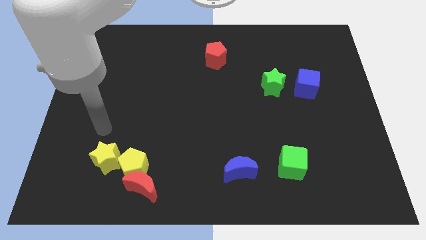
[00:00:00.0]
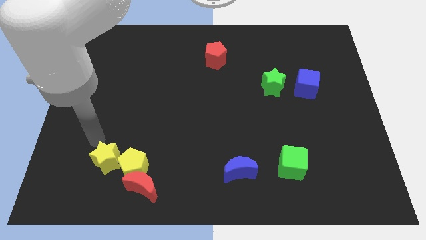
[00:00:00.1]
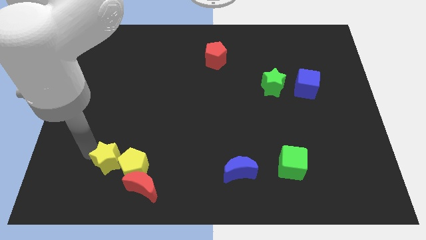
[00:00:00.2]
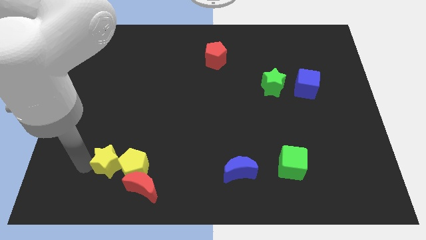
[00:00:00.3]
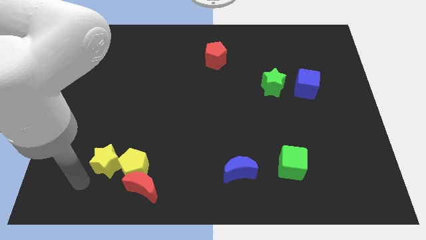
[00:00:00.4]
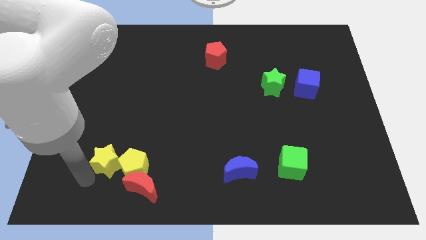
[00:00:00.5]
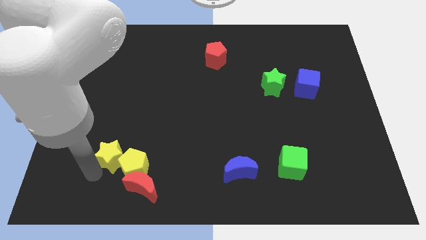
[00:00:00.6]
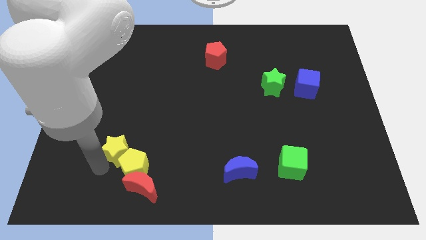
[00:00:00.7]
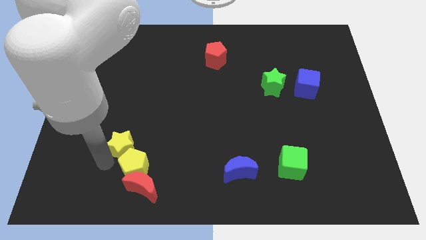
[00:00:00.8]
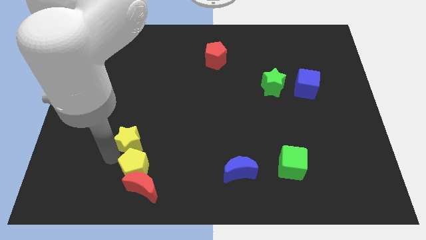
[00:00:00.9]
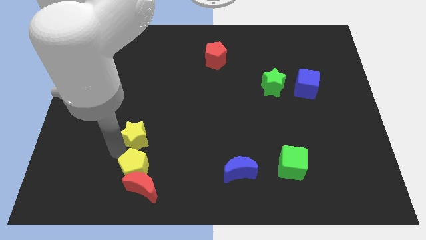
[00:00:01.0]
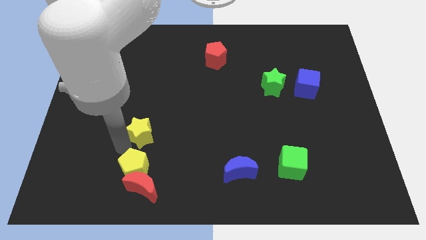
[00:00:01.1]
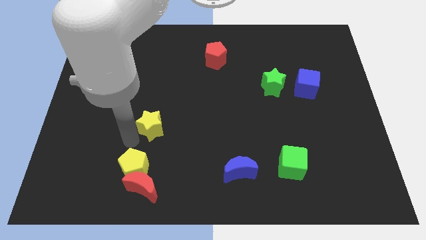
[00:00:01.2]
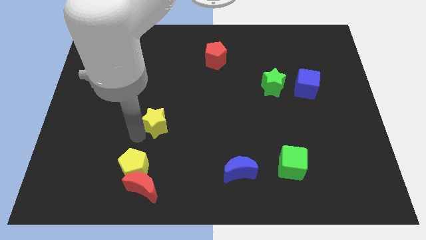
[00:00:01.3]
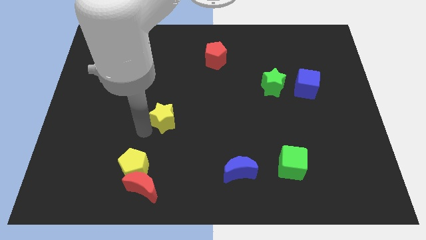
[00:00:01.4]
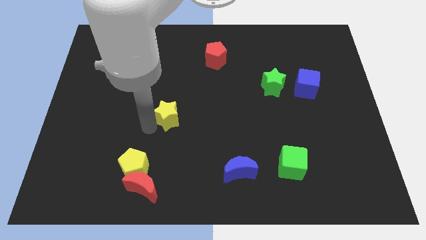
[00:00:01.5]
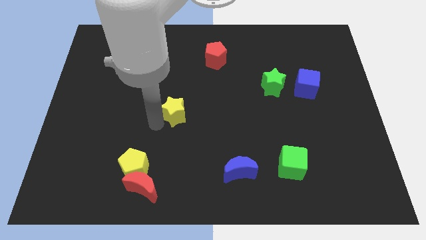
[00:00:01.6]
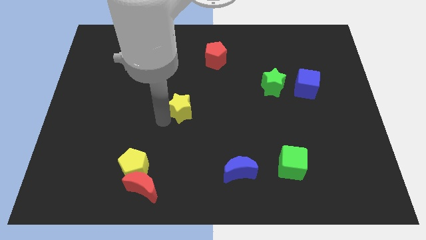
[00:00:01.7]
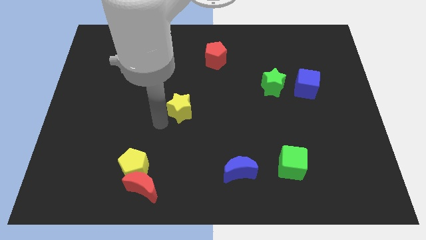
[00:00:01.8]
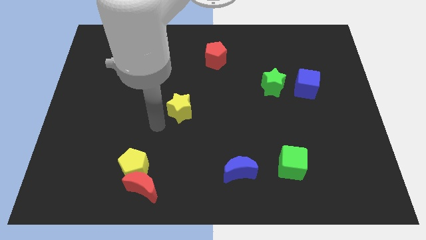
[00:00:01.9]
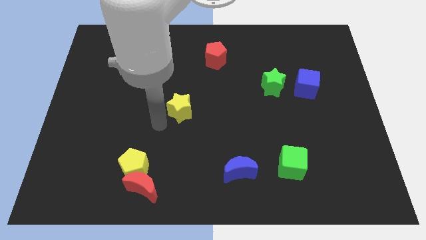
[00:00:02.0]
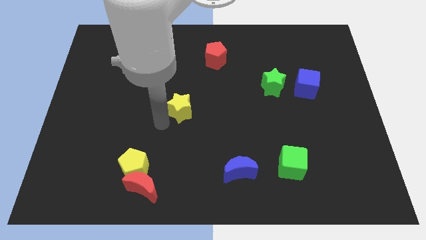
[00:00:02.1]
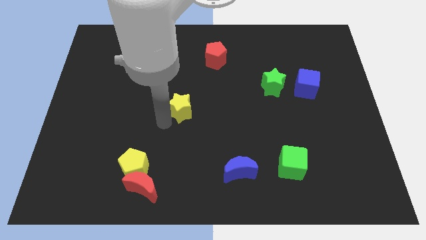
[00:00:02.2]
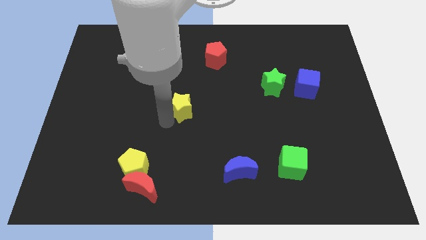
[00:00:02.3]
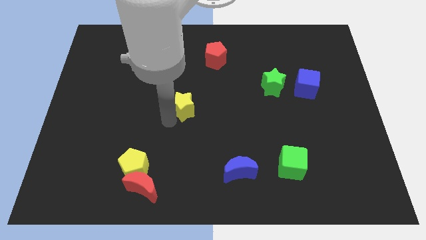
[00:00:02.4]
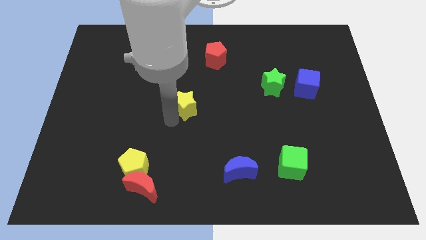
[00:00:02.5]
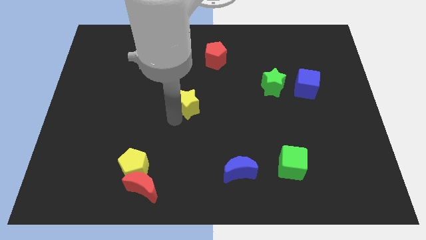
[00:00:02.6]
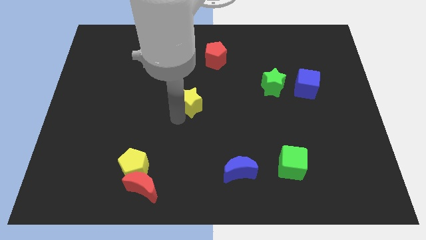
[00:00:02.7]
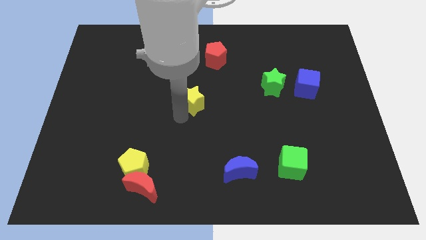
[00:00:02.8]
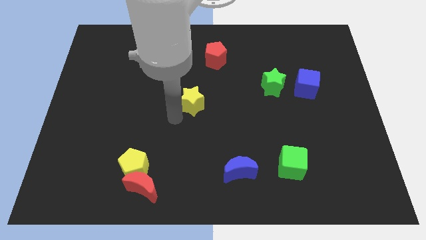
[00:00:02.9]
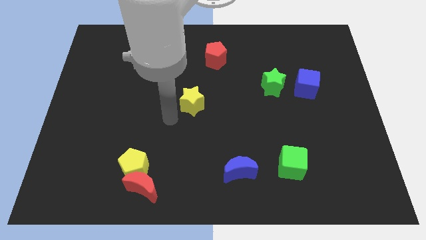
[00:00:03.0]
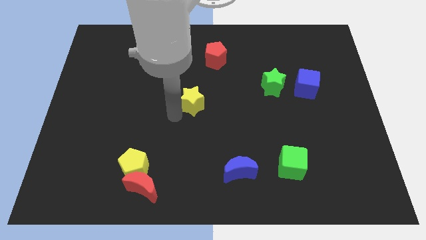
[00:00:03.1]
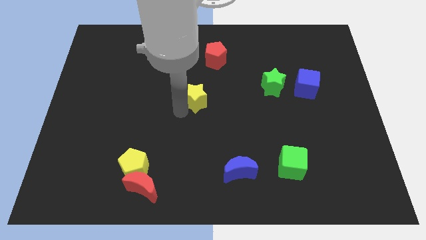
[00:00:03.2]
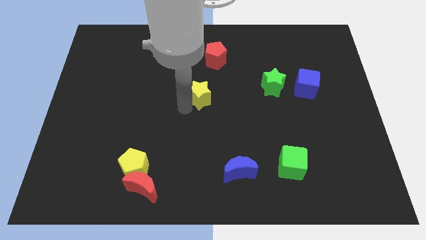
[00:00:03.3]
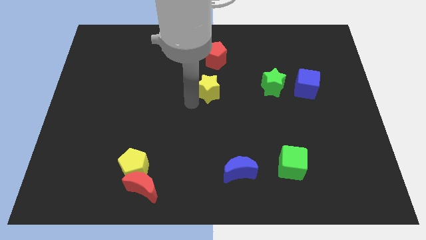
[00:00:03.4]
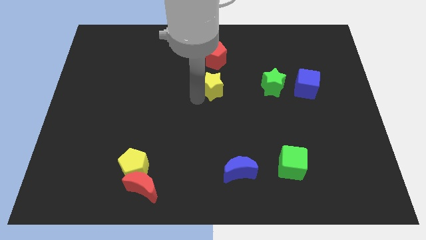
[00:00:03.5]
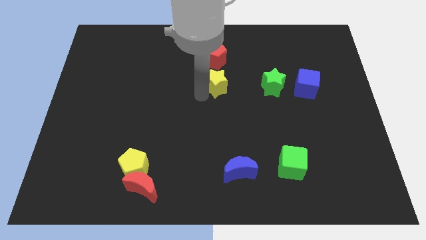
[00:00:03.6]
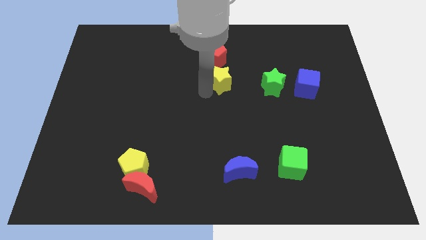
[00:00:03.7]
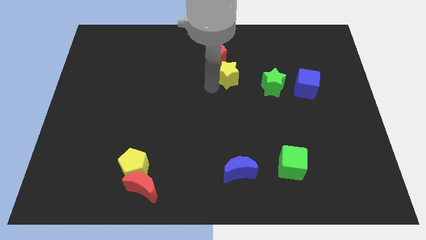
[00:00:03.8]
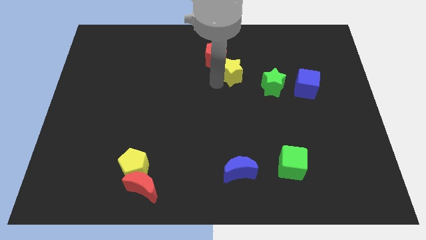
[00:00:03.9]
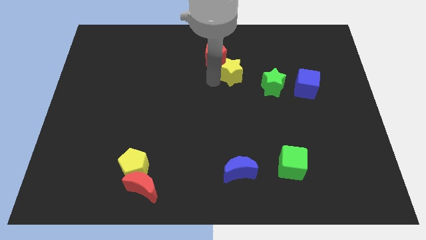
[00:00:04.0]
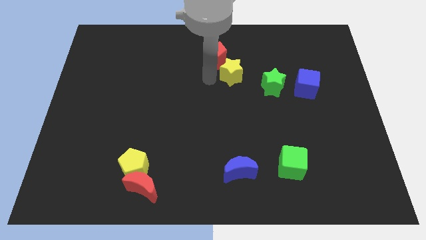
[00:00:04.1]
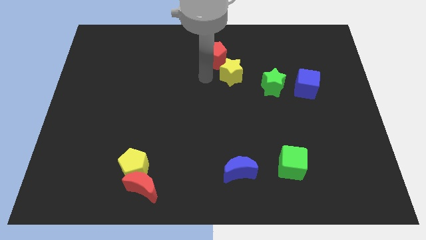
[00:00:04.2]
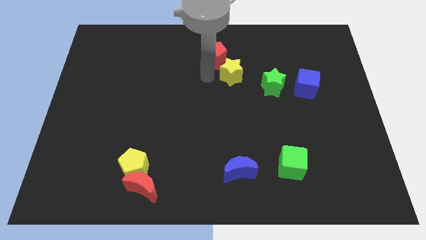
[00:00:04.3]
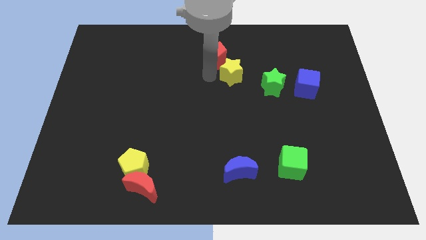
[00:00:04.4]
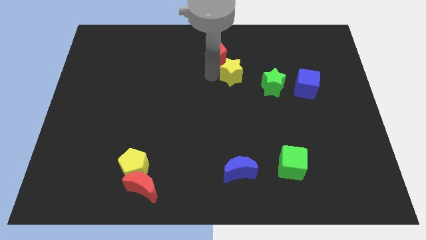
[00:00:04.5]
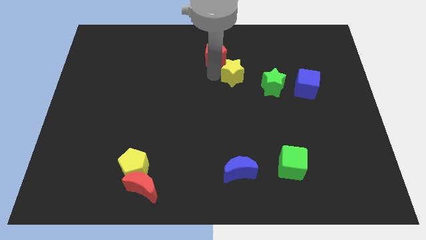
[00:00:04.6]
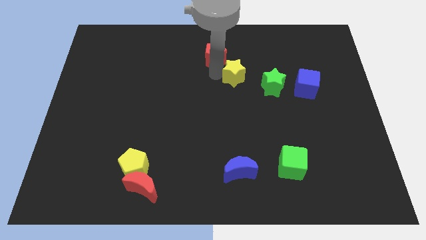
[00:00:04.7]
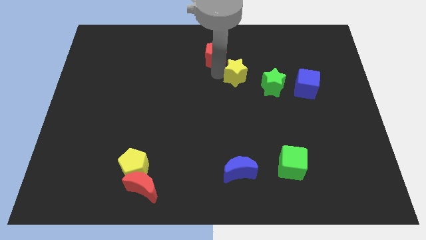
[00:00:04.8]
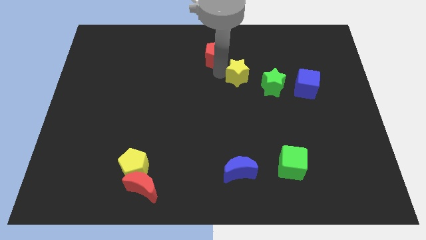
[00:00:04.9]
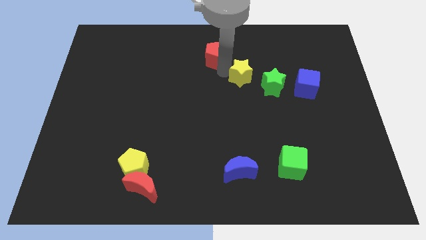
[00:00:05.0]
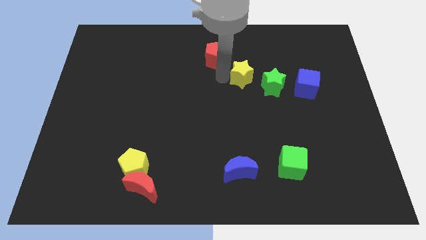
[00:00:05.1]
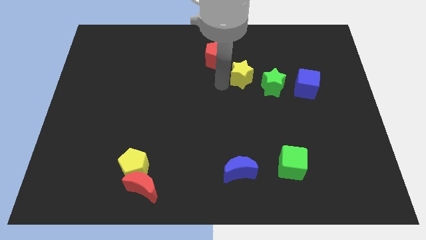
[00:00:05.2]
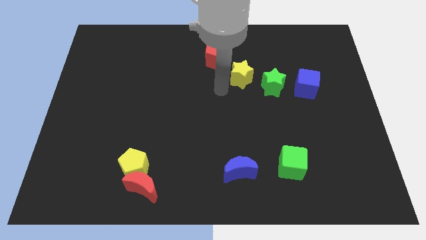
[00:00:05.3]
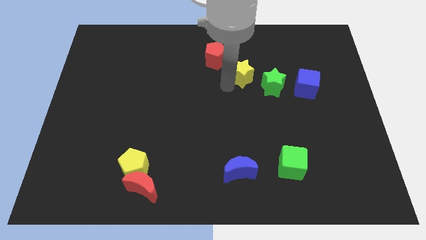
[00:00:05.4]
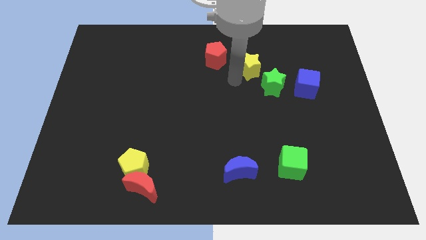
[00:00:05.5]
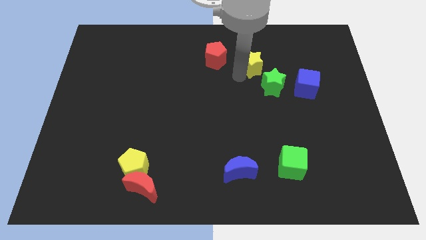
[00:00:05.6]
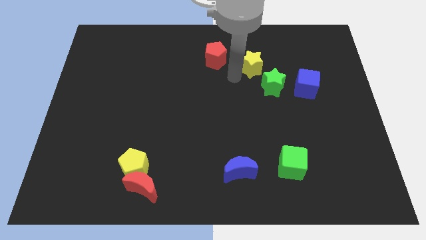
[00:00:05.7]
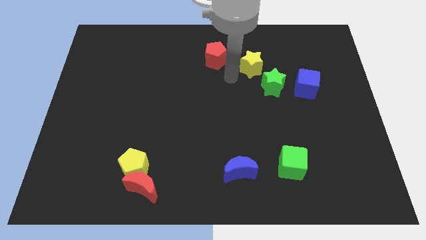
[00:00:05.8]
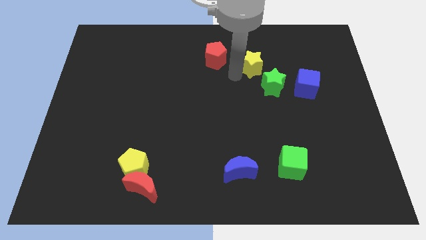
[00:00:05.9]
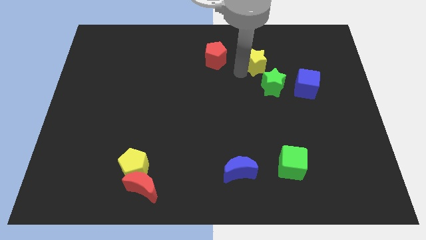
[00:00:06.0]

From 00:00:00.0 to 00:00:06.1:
slide the yellow star to the top side of the green star

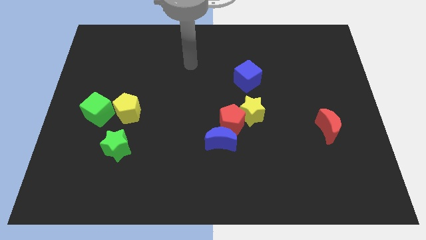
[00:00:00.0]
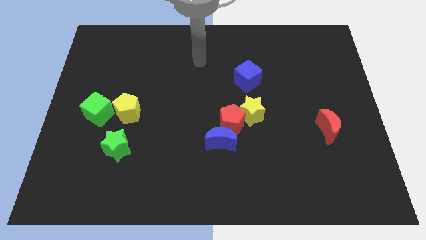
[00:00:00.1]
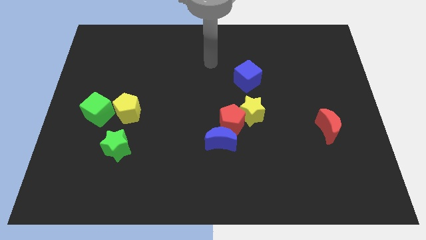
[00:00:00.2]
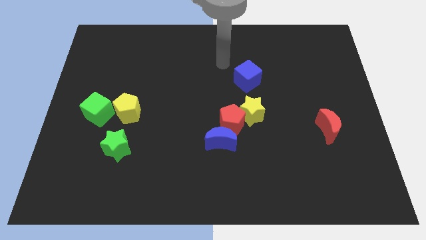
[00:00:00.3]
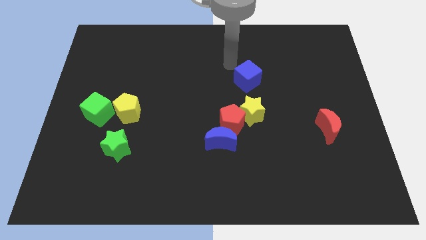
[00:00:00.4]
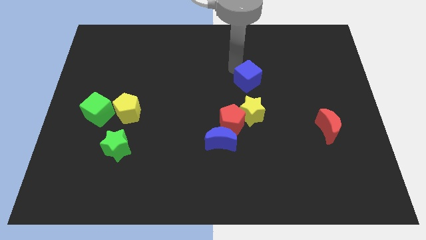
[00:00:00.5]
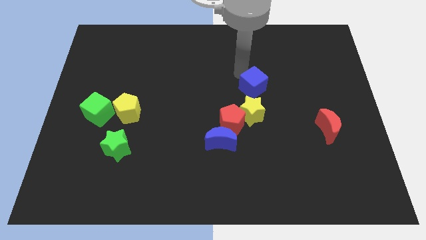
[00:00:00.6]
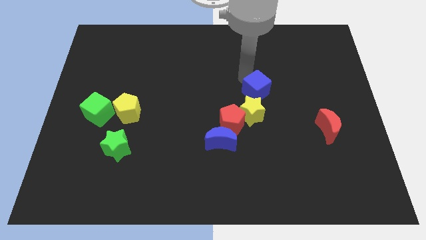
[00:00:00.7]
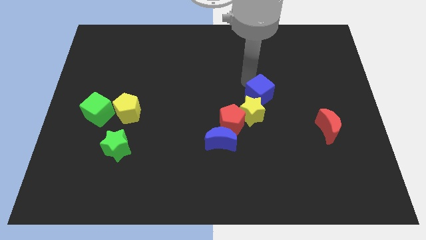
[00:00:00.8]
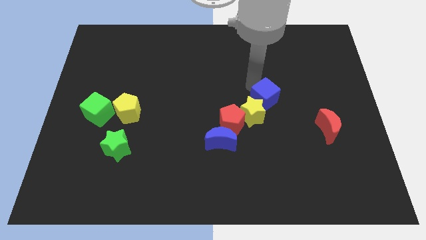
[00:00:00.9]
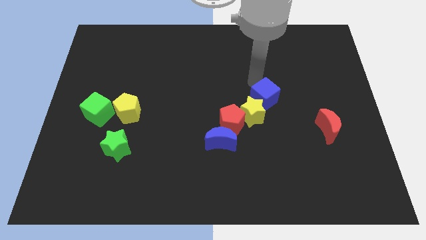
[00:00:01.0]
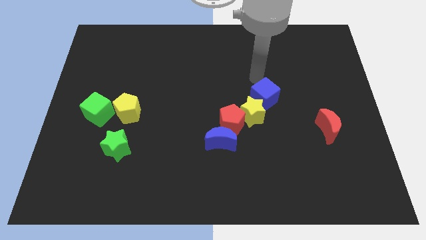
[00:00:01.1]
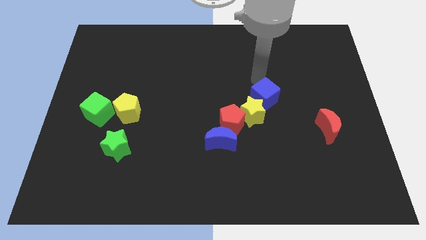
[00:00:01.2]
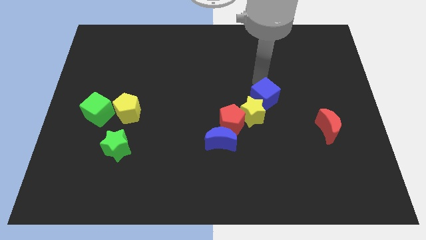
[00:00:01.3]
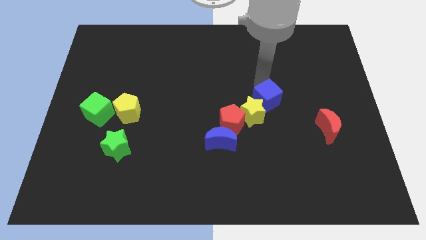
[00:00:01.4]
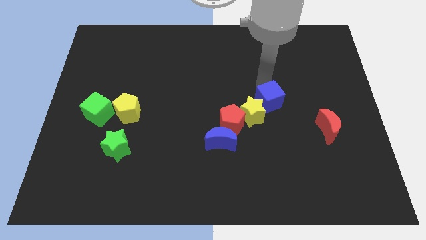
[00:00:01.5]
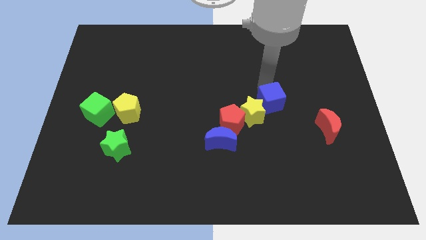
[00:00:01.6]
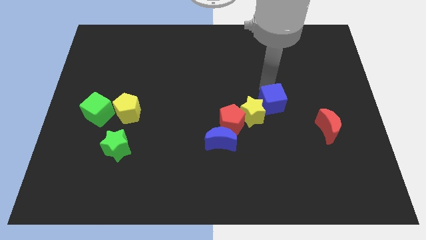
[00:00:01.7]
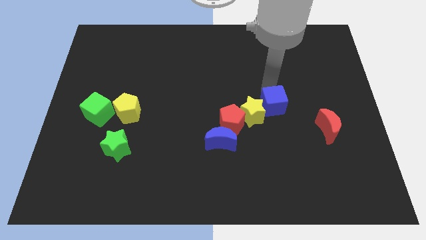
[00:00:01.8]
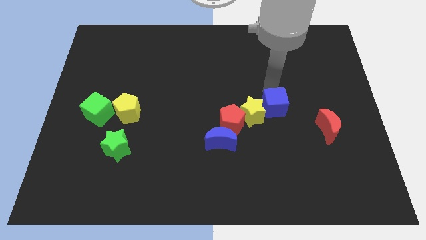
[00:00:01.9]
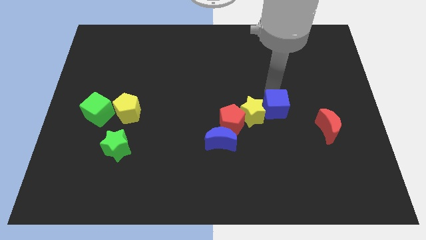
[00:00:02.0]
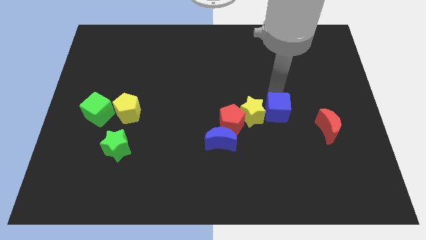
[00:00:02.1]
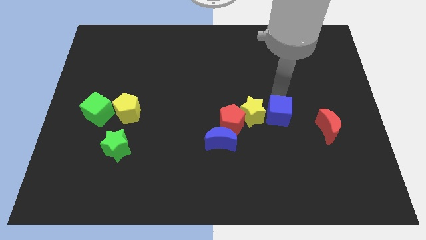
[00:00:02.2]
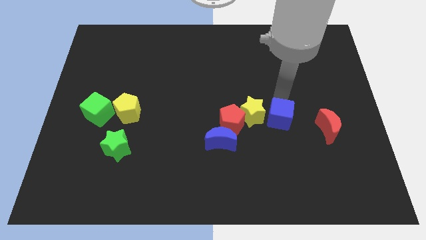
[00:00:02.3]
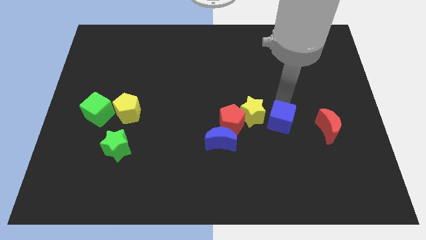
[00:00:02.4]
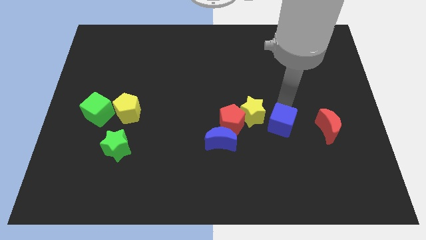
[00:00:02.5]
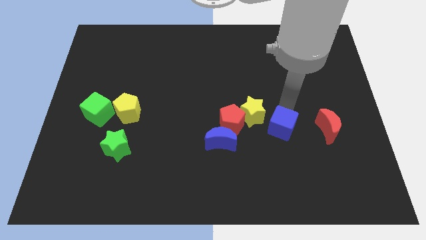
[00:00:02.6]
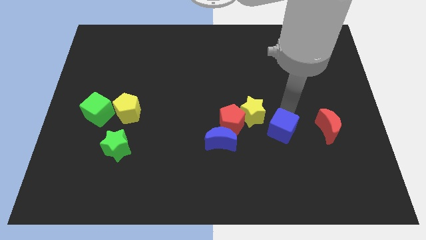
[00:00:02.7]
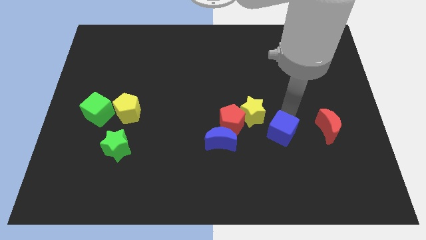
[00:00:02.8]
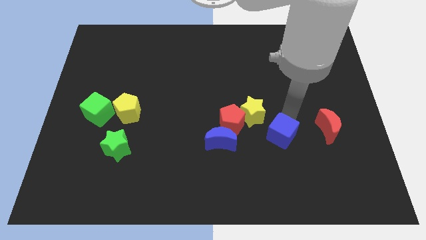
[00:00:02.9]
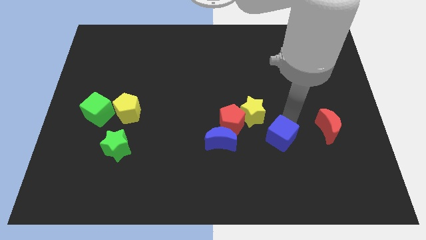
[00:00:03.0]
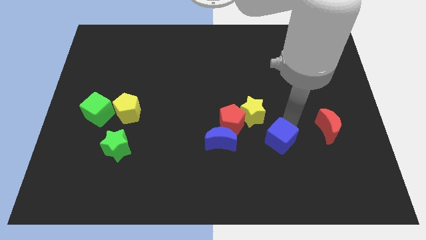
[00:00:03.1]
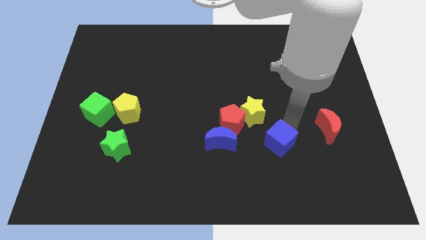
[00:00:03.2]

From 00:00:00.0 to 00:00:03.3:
slide the blue cube to the bottom right side of the red pentagon
